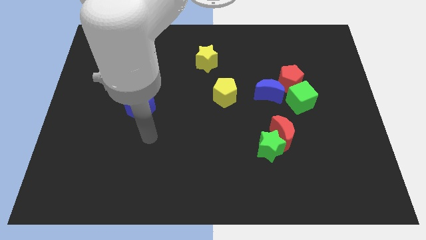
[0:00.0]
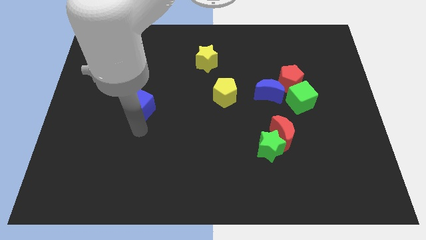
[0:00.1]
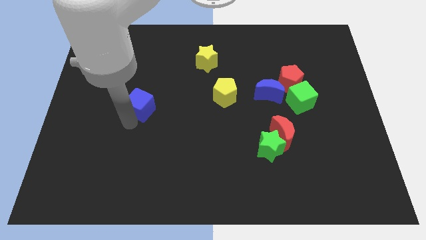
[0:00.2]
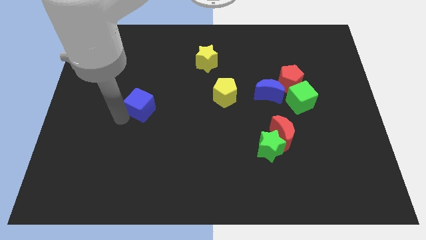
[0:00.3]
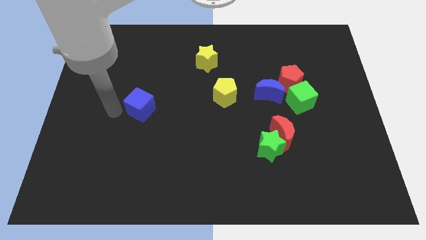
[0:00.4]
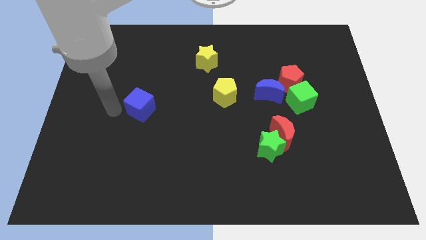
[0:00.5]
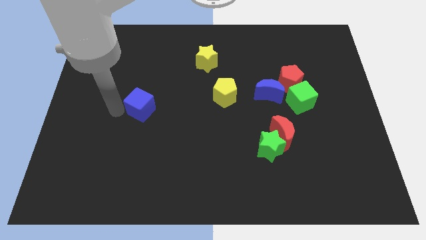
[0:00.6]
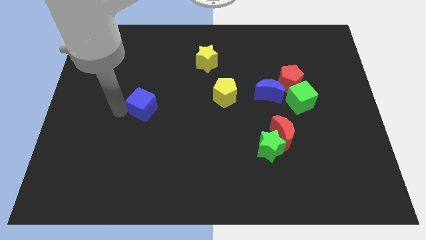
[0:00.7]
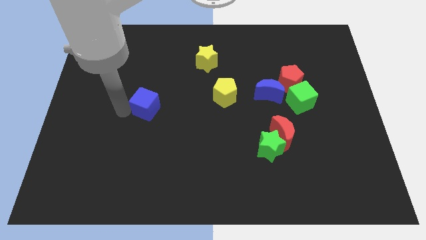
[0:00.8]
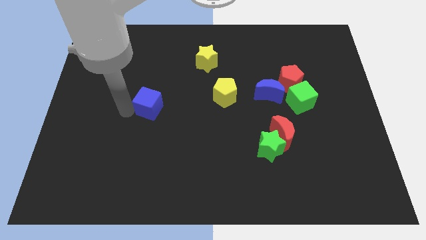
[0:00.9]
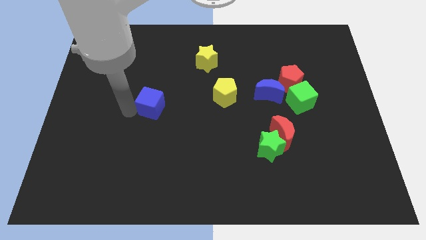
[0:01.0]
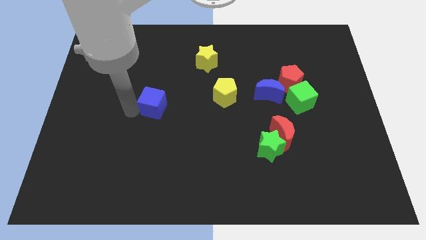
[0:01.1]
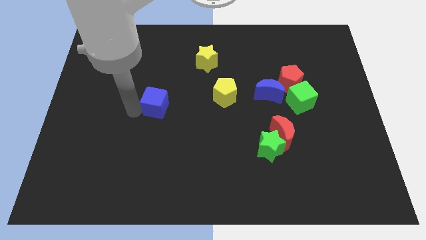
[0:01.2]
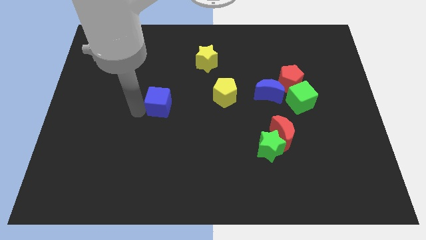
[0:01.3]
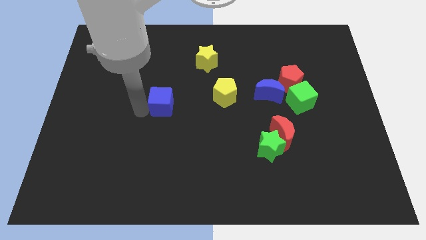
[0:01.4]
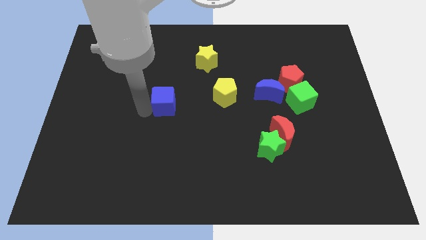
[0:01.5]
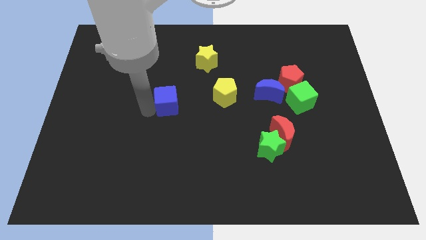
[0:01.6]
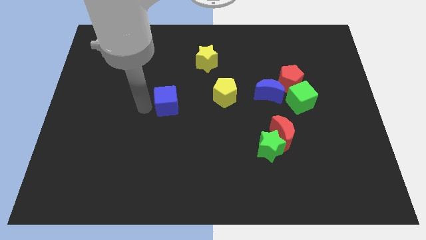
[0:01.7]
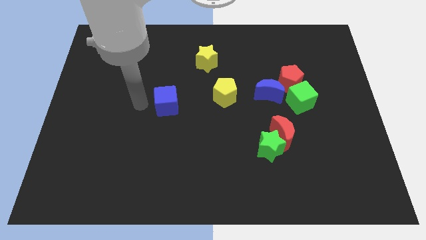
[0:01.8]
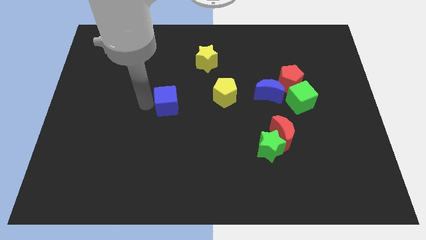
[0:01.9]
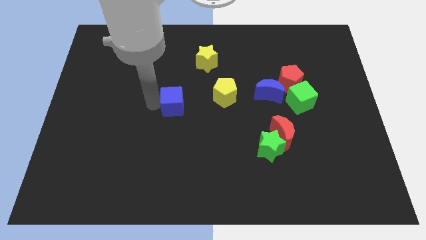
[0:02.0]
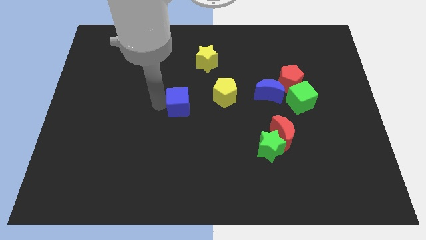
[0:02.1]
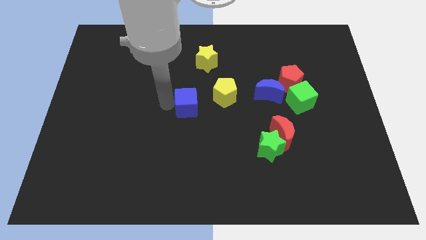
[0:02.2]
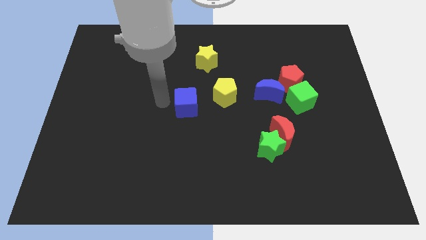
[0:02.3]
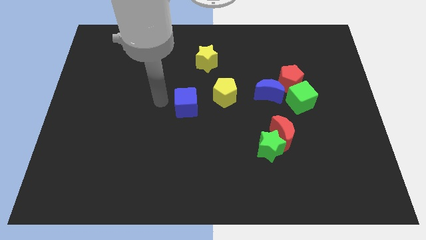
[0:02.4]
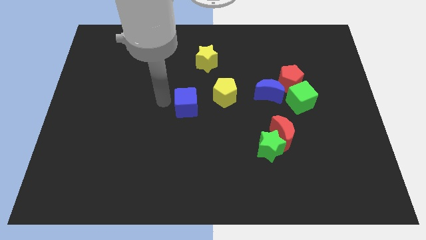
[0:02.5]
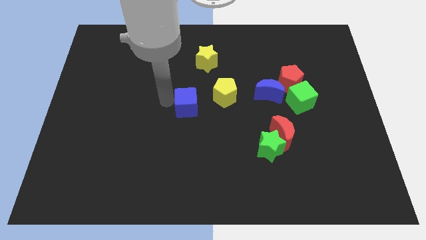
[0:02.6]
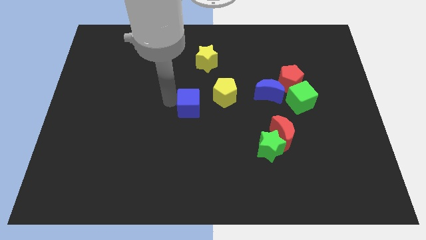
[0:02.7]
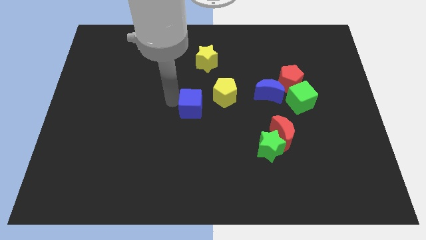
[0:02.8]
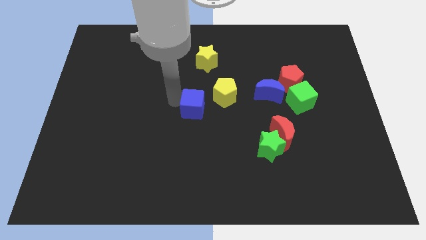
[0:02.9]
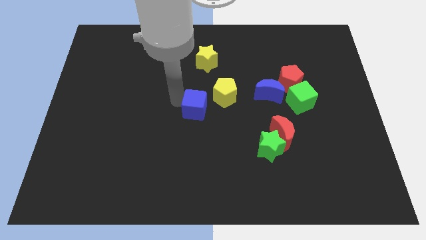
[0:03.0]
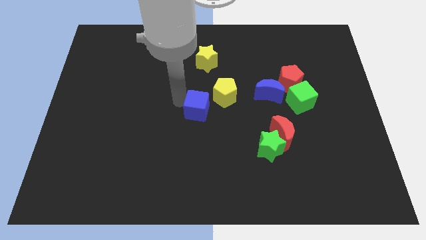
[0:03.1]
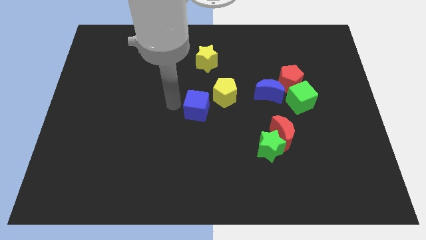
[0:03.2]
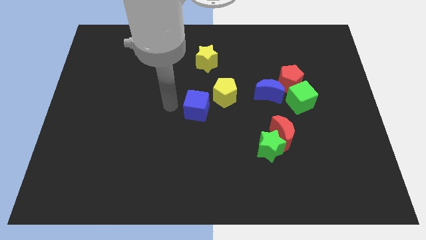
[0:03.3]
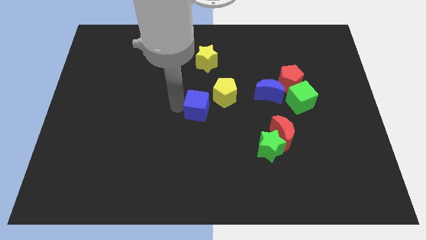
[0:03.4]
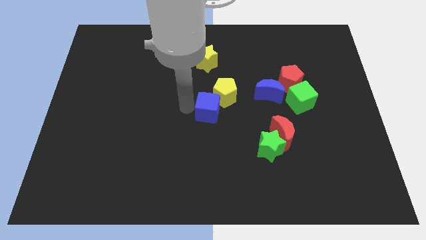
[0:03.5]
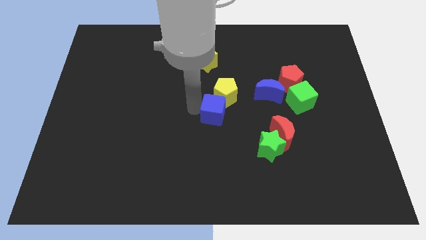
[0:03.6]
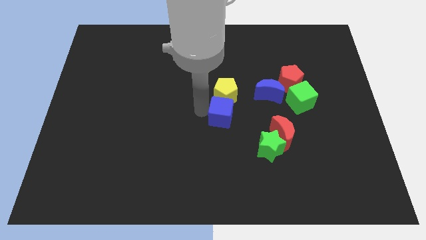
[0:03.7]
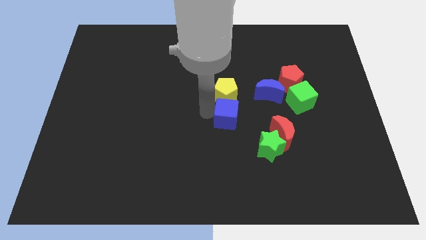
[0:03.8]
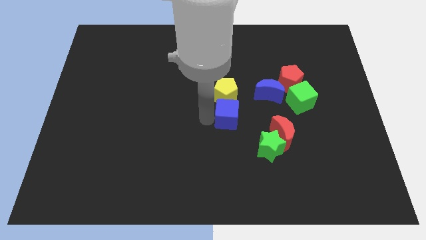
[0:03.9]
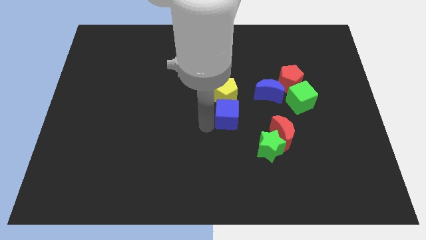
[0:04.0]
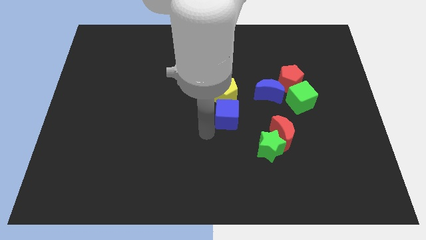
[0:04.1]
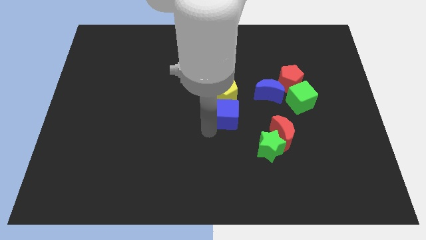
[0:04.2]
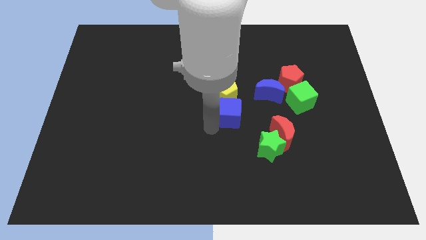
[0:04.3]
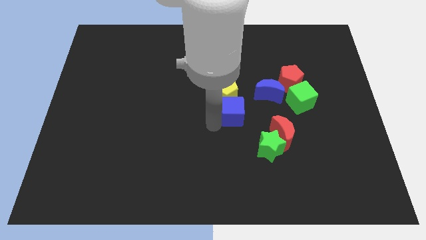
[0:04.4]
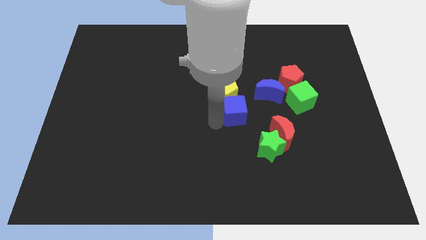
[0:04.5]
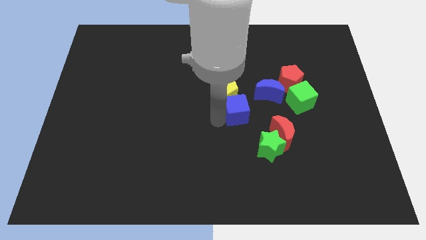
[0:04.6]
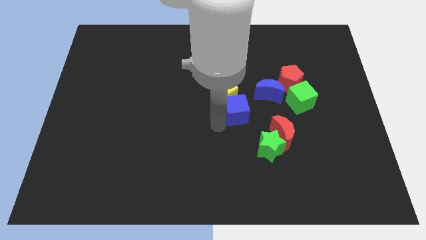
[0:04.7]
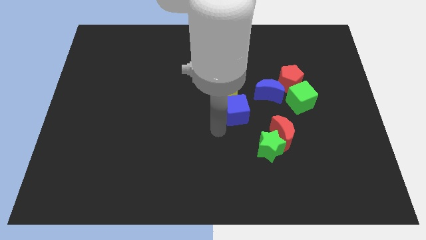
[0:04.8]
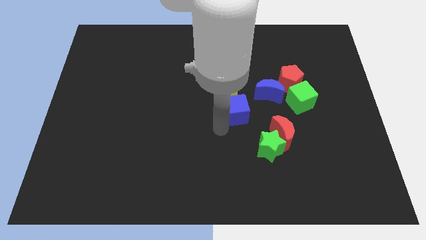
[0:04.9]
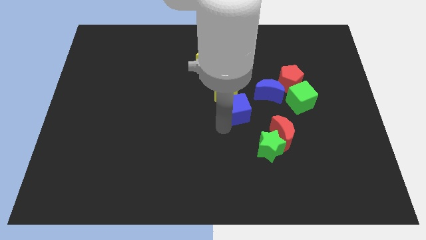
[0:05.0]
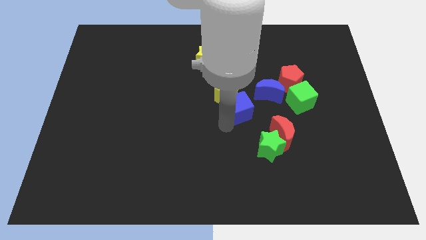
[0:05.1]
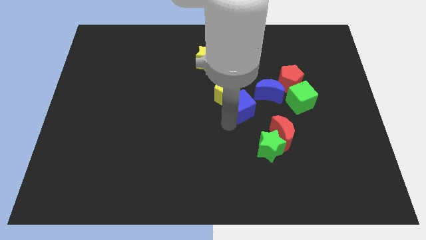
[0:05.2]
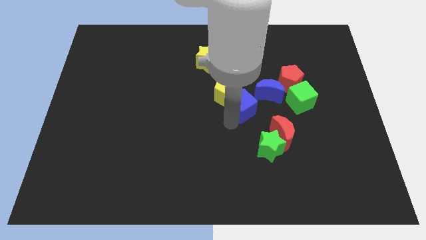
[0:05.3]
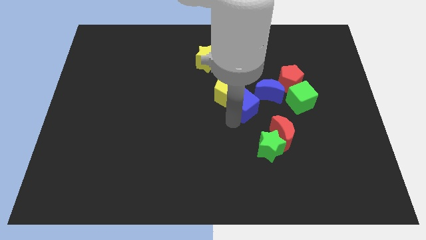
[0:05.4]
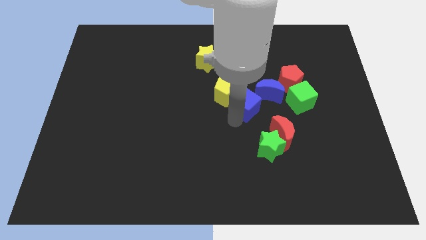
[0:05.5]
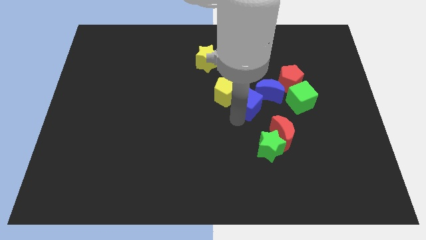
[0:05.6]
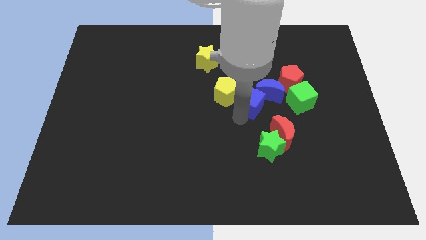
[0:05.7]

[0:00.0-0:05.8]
put the blue cube close to the blue moon

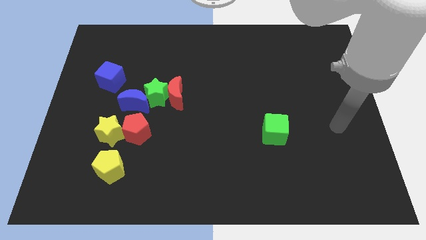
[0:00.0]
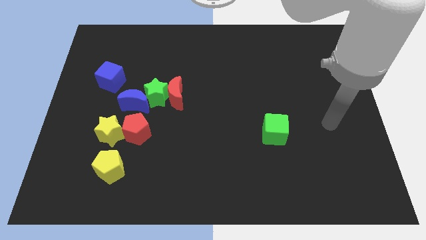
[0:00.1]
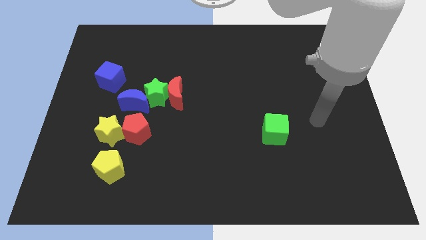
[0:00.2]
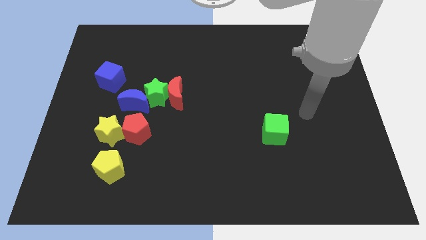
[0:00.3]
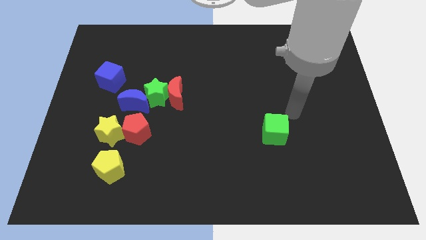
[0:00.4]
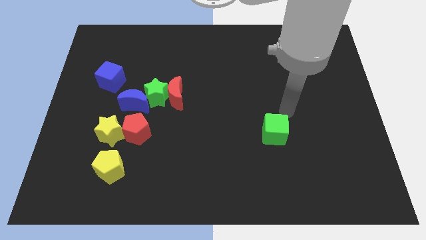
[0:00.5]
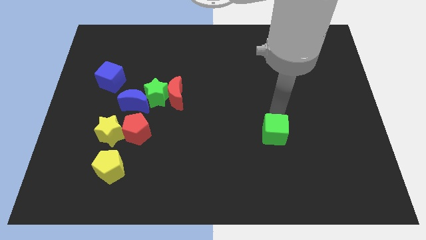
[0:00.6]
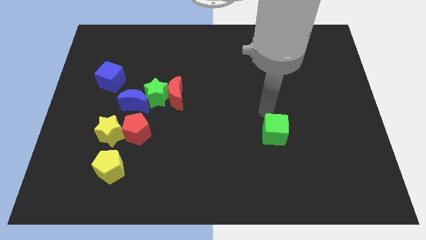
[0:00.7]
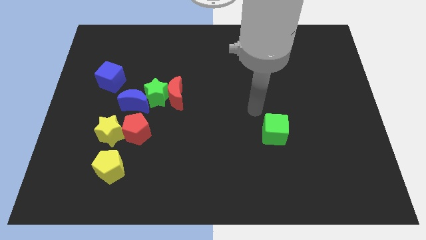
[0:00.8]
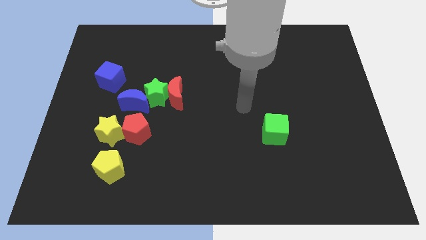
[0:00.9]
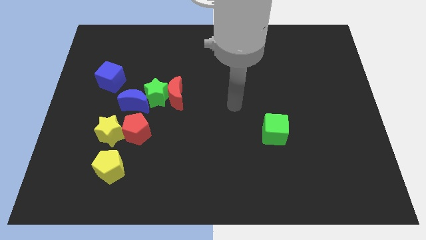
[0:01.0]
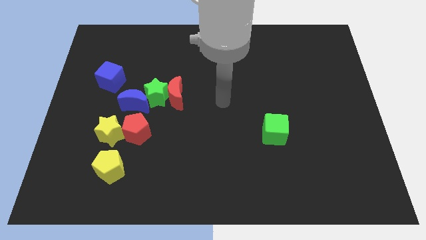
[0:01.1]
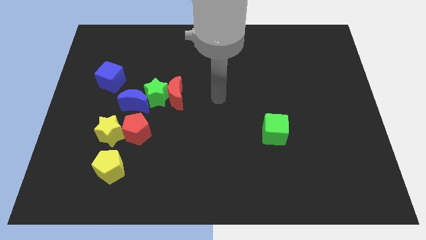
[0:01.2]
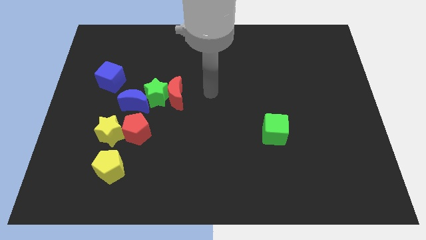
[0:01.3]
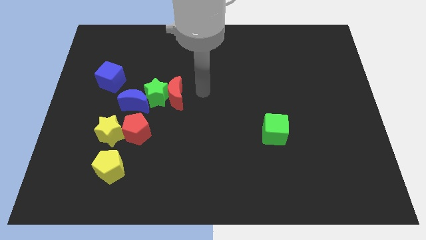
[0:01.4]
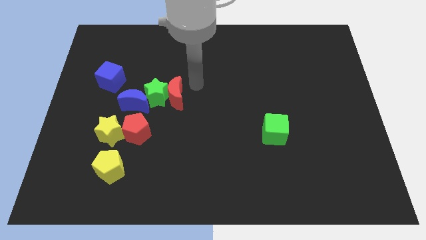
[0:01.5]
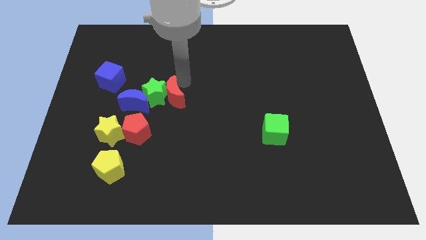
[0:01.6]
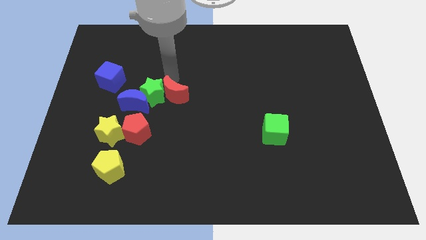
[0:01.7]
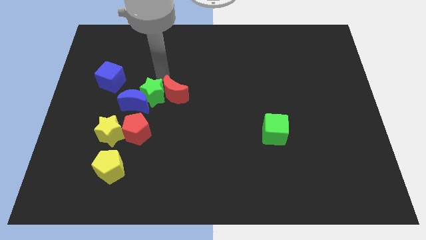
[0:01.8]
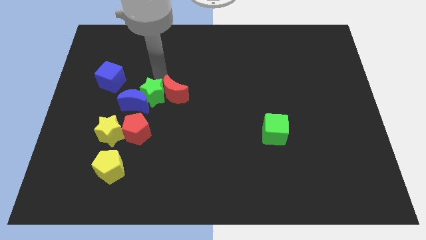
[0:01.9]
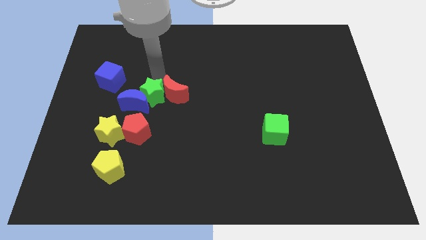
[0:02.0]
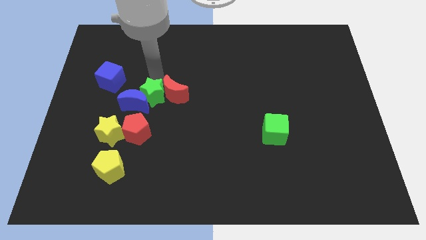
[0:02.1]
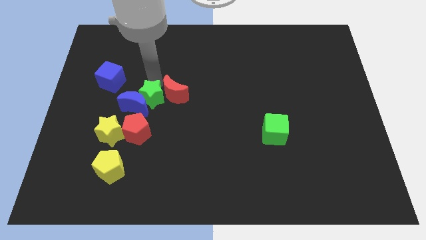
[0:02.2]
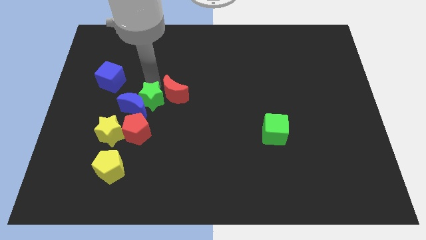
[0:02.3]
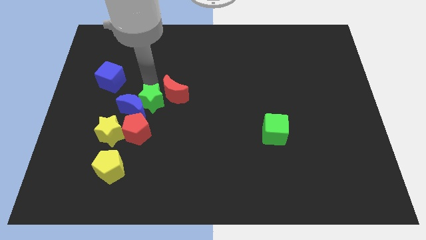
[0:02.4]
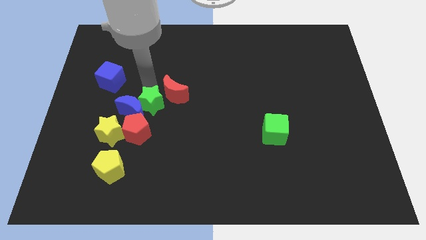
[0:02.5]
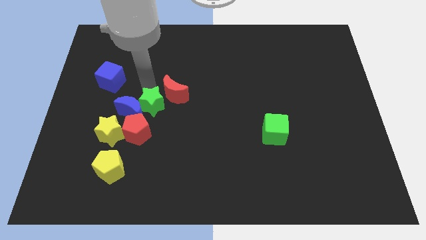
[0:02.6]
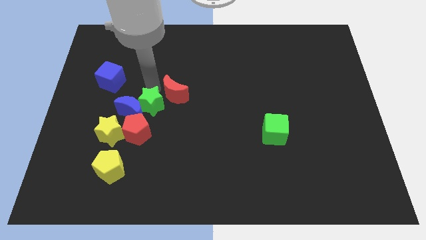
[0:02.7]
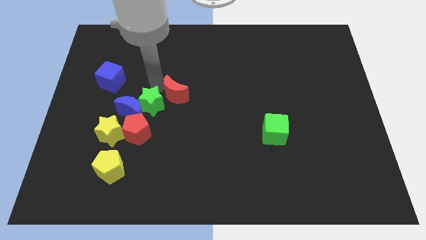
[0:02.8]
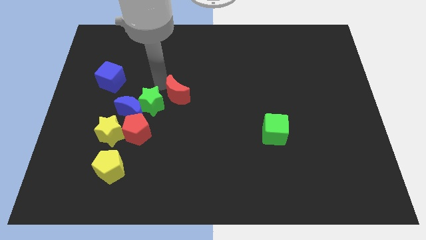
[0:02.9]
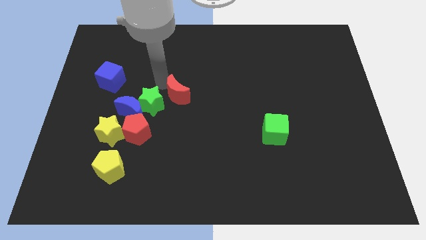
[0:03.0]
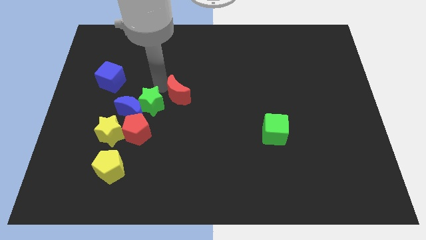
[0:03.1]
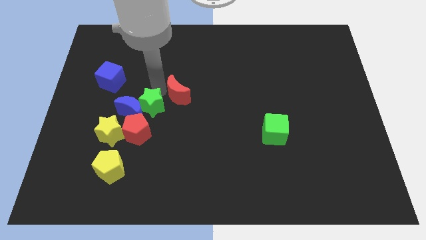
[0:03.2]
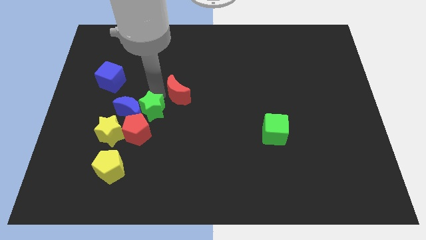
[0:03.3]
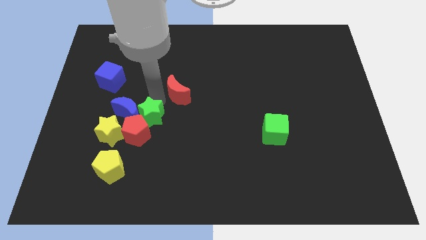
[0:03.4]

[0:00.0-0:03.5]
put the green star next to the red pentagon
